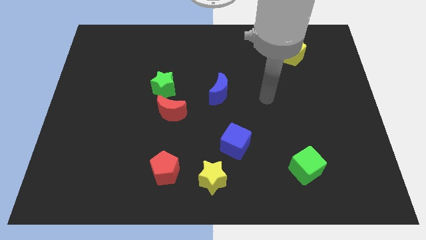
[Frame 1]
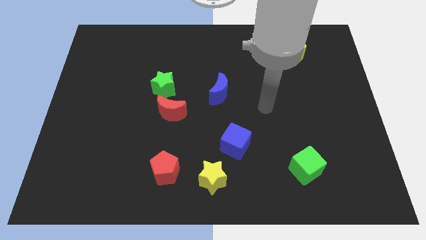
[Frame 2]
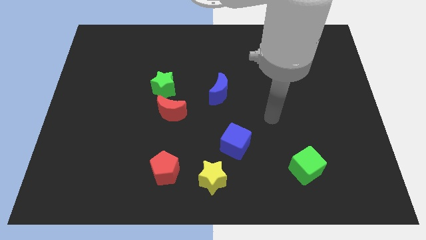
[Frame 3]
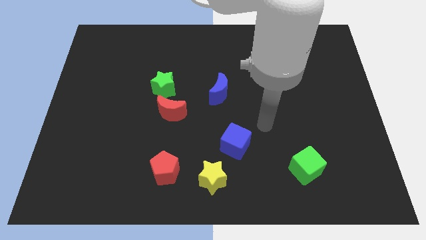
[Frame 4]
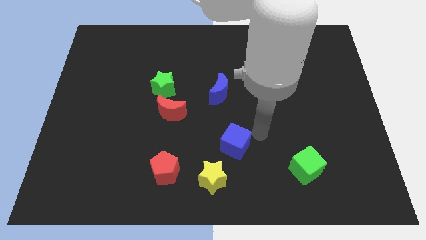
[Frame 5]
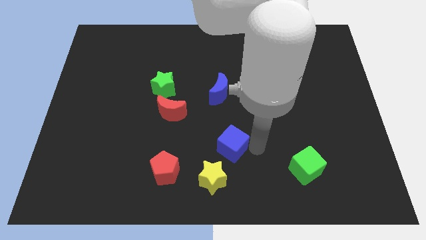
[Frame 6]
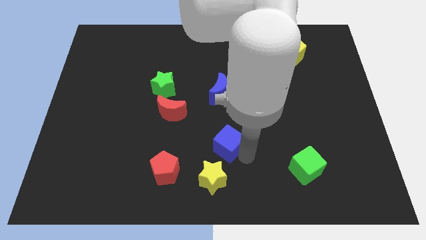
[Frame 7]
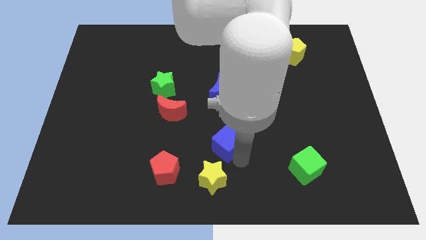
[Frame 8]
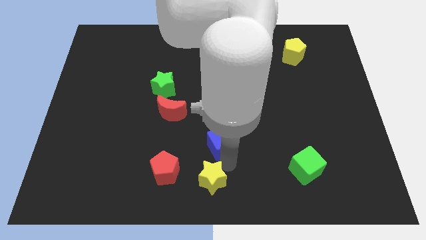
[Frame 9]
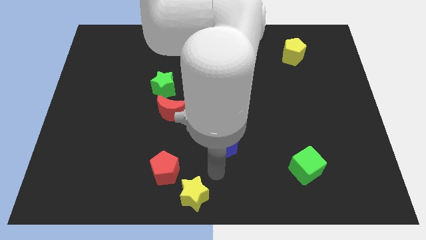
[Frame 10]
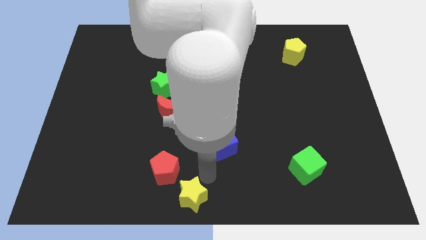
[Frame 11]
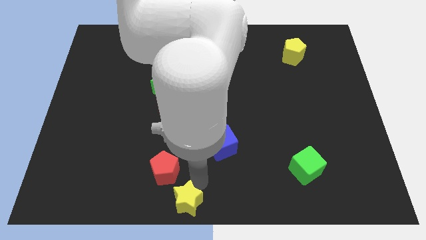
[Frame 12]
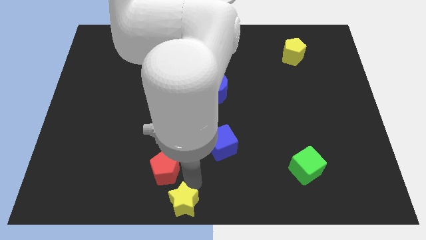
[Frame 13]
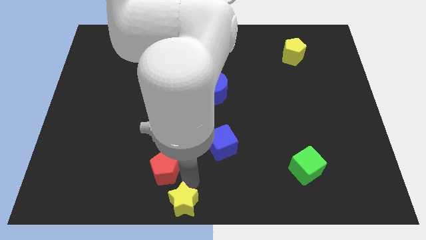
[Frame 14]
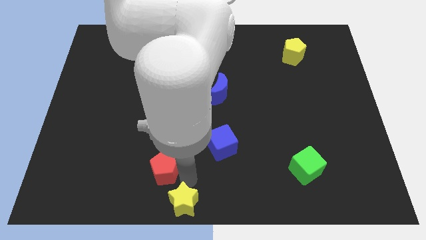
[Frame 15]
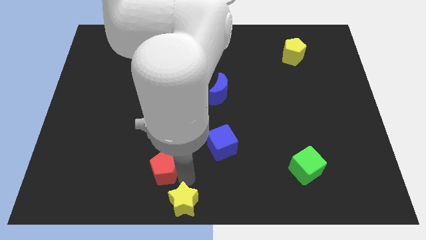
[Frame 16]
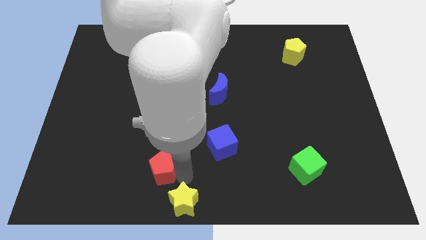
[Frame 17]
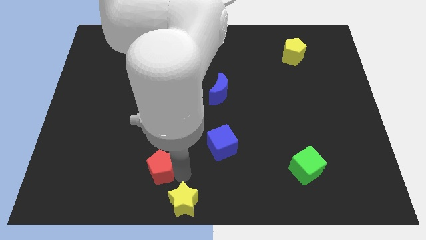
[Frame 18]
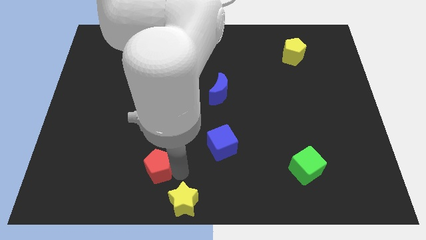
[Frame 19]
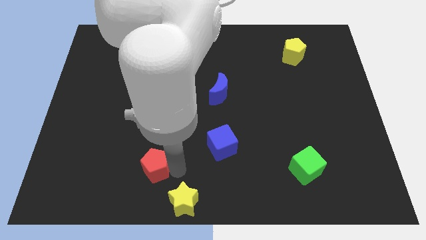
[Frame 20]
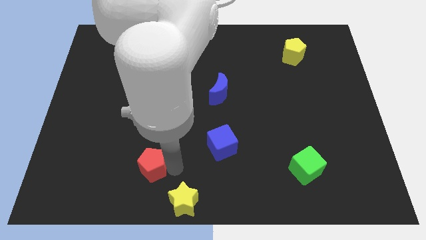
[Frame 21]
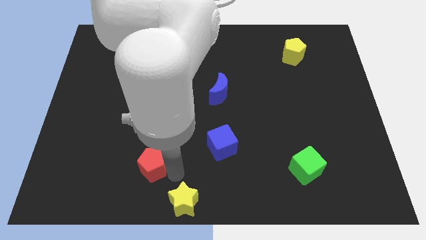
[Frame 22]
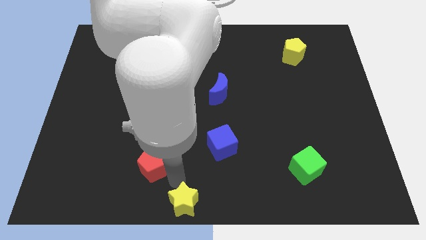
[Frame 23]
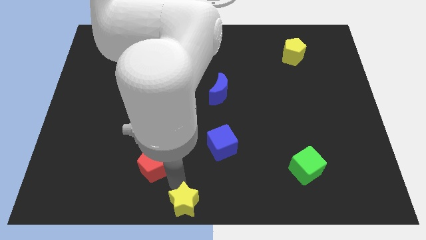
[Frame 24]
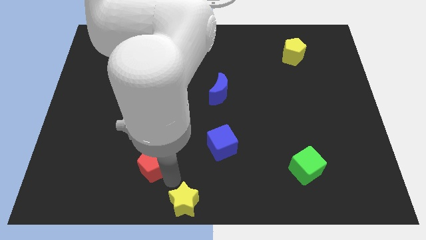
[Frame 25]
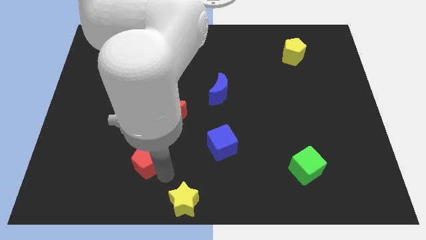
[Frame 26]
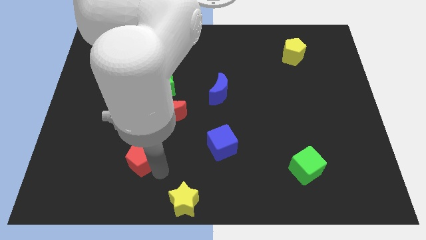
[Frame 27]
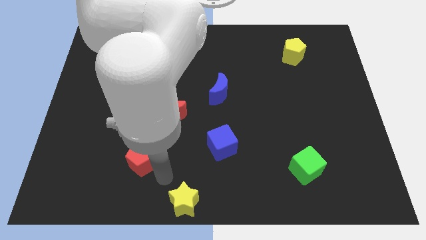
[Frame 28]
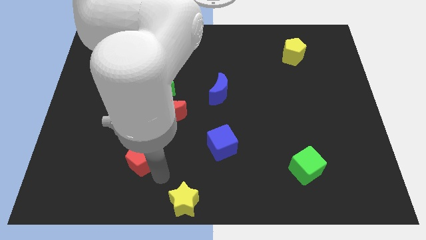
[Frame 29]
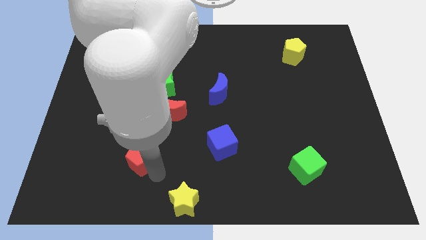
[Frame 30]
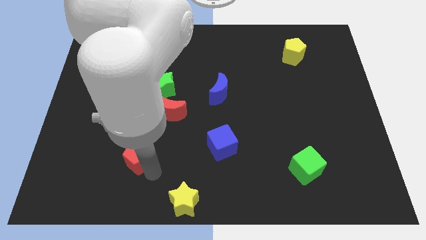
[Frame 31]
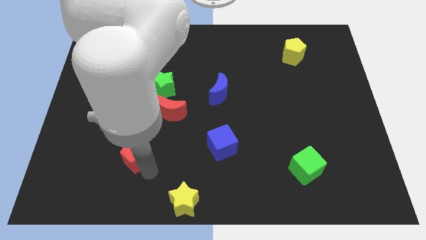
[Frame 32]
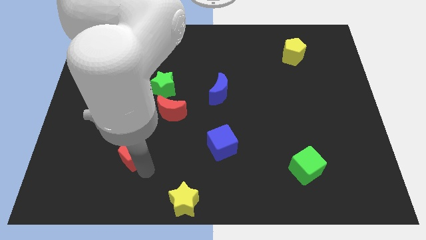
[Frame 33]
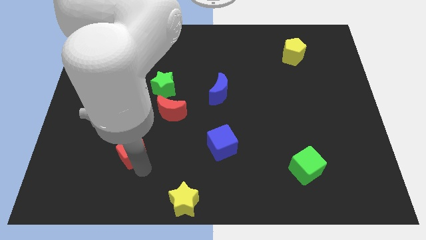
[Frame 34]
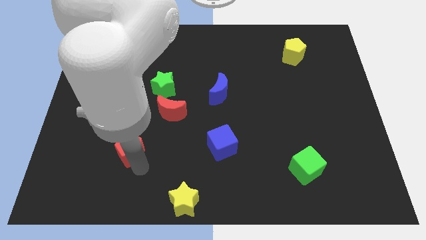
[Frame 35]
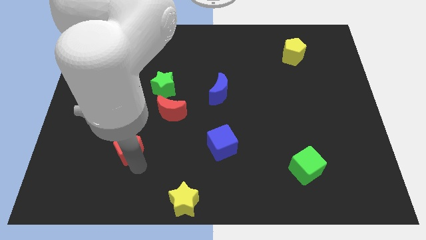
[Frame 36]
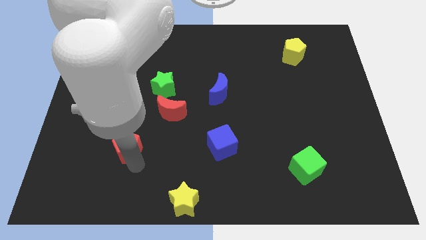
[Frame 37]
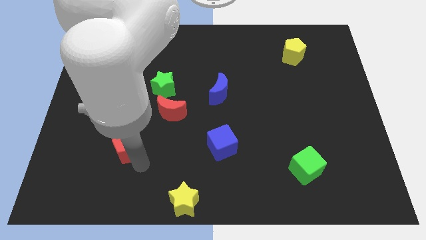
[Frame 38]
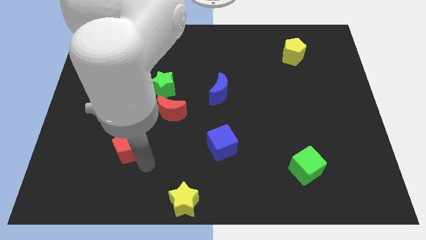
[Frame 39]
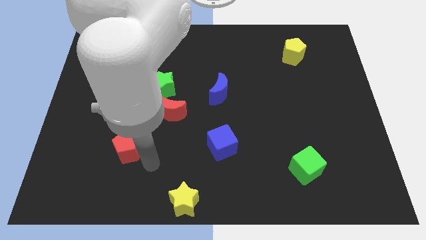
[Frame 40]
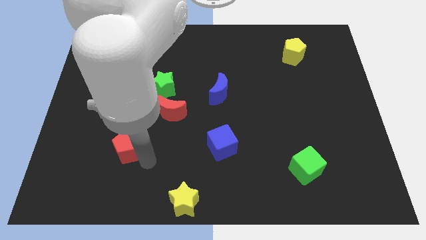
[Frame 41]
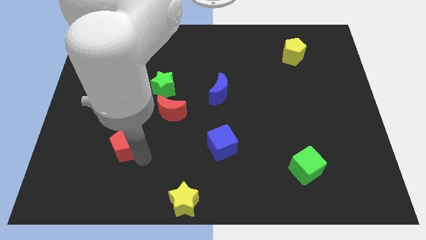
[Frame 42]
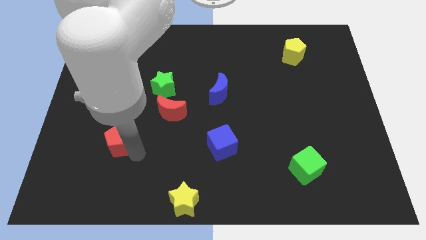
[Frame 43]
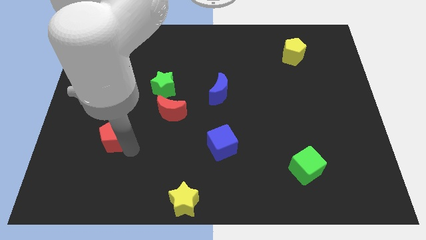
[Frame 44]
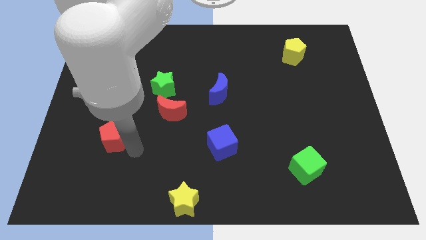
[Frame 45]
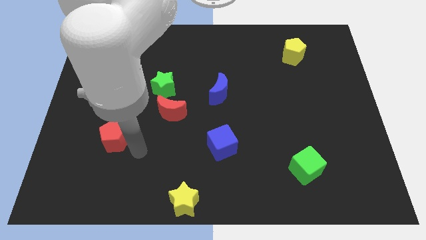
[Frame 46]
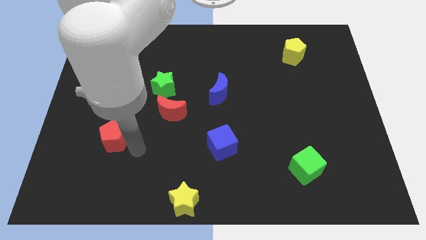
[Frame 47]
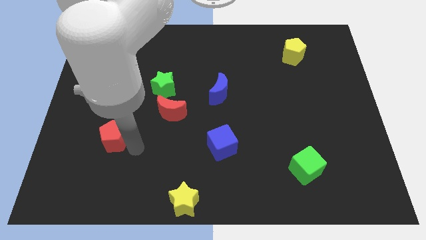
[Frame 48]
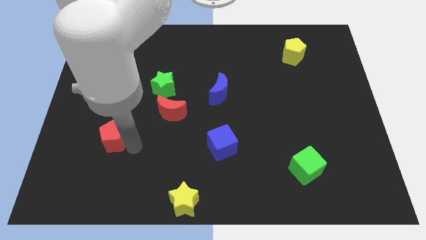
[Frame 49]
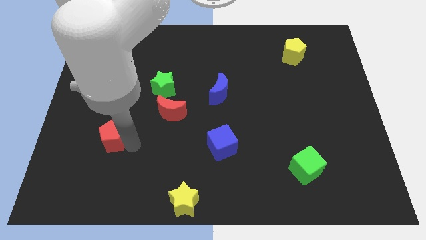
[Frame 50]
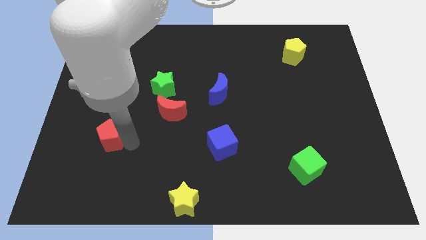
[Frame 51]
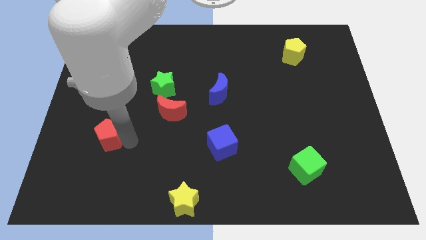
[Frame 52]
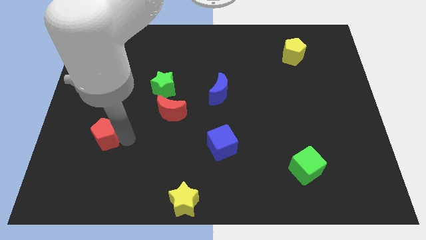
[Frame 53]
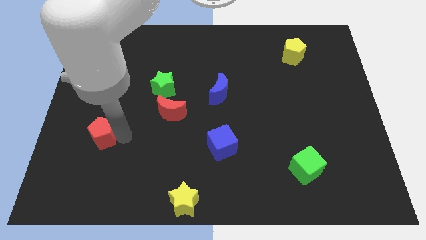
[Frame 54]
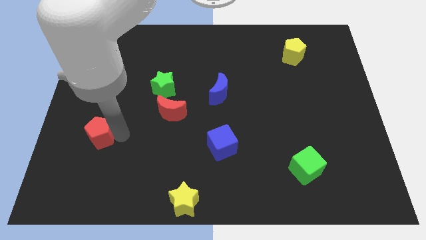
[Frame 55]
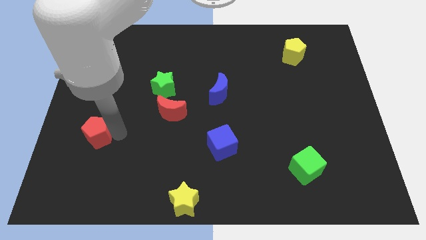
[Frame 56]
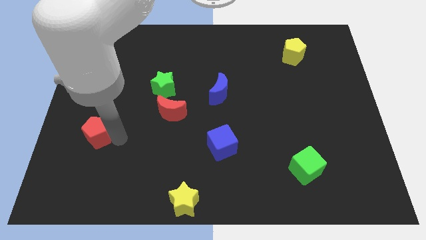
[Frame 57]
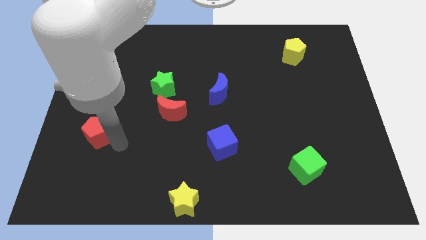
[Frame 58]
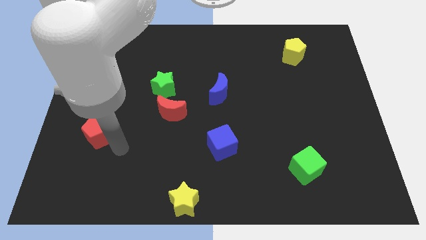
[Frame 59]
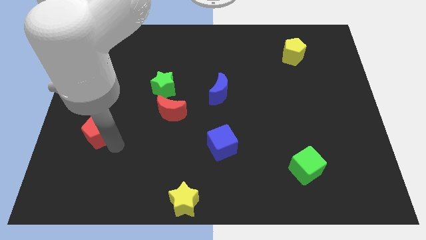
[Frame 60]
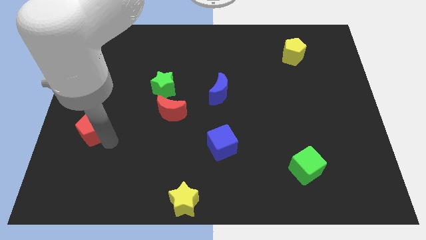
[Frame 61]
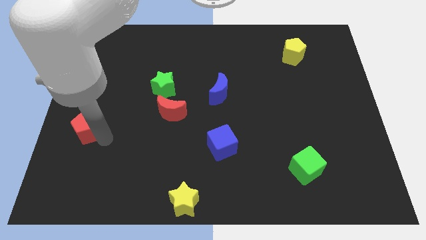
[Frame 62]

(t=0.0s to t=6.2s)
push the red pentagon to the left side
